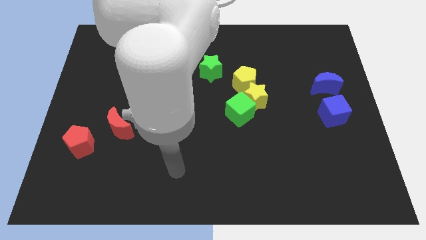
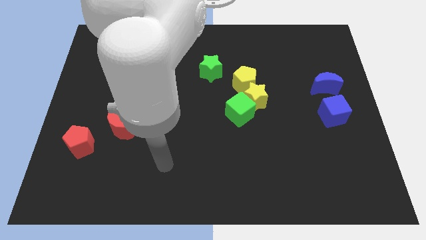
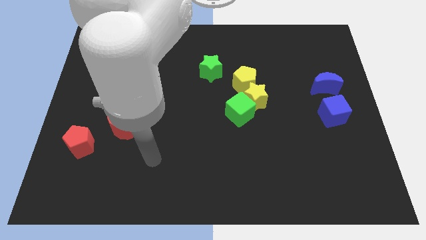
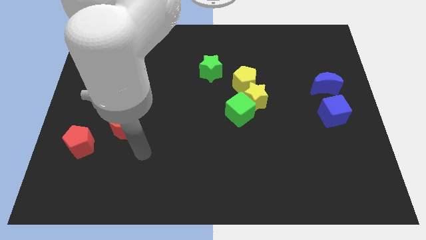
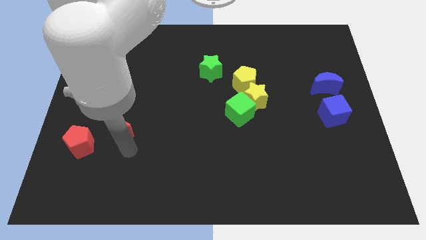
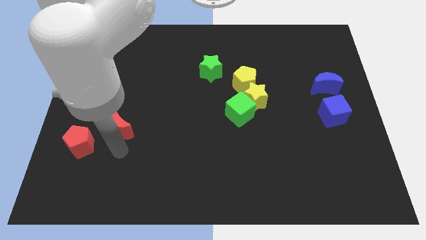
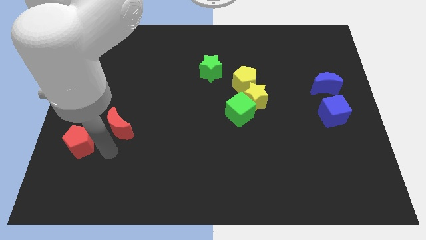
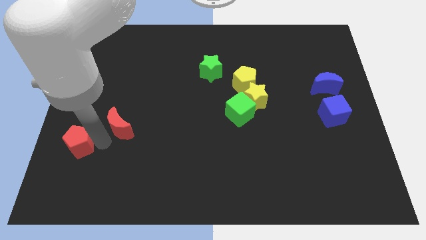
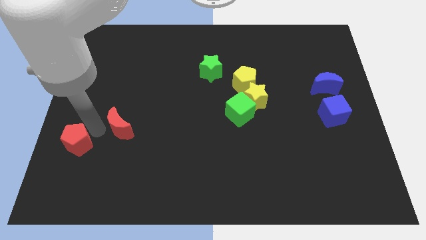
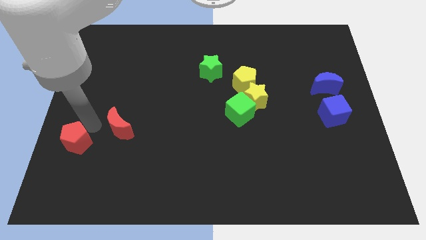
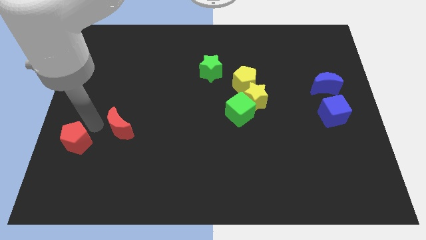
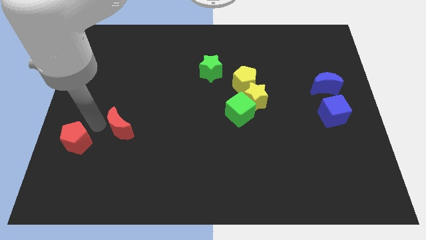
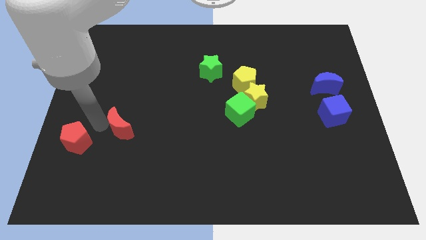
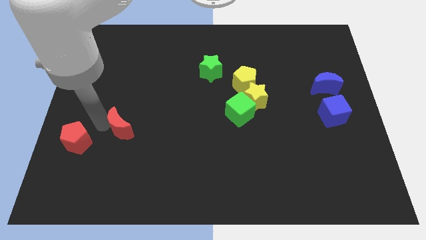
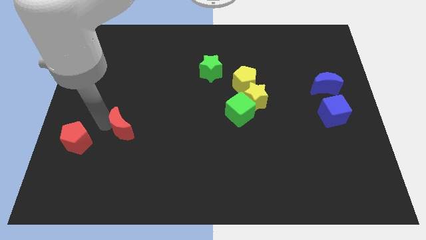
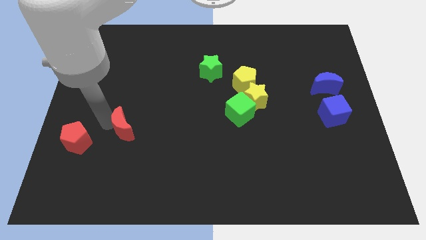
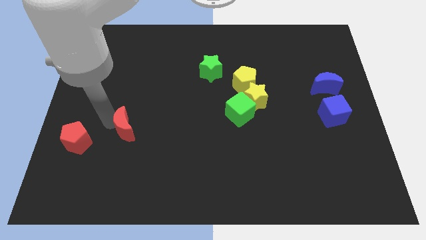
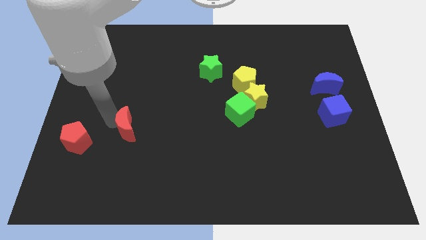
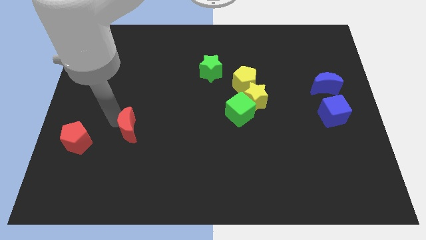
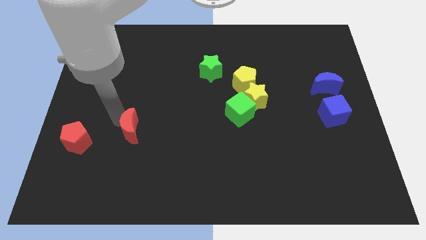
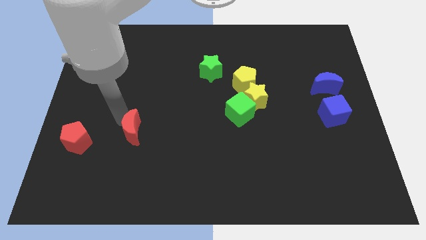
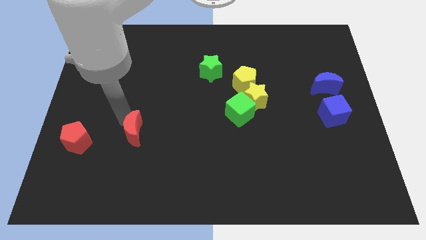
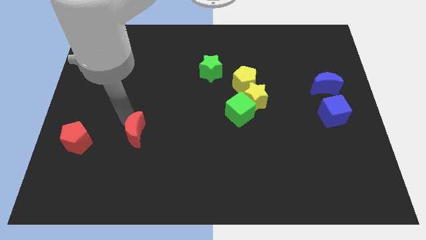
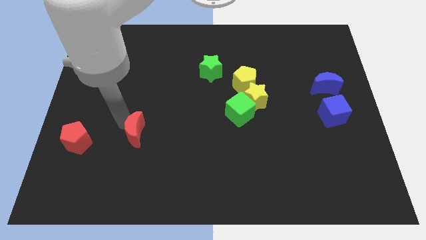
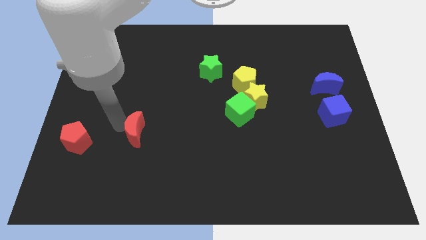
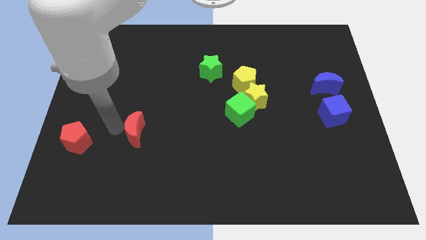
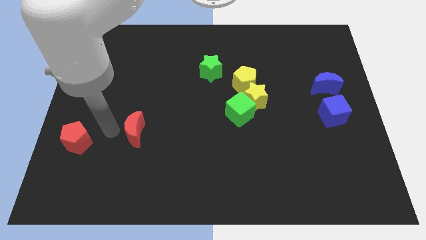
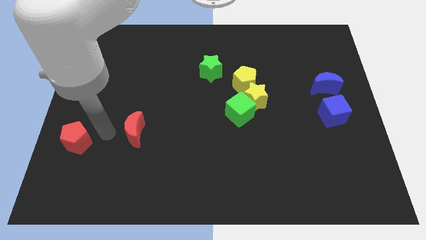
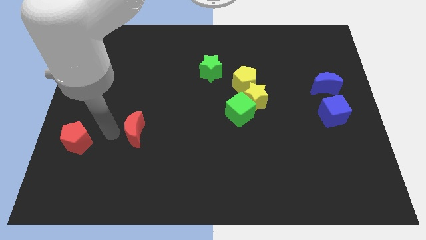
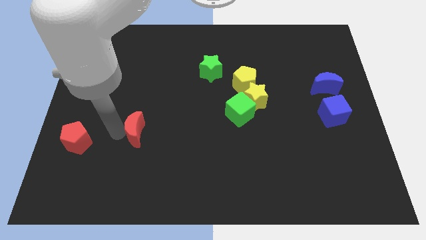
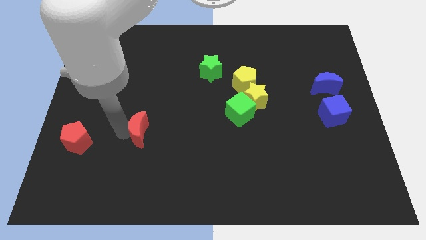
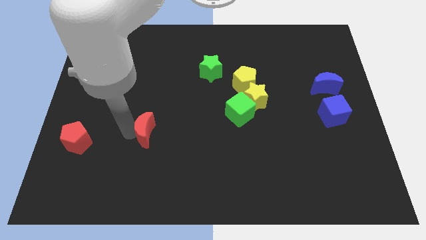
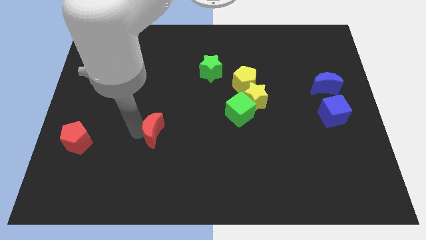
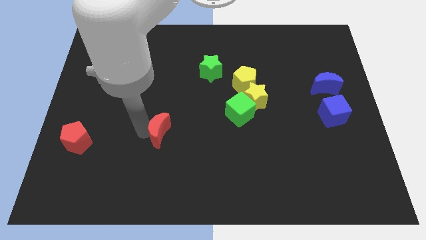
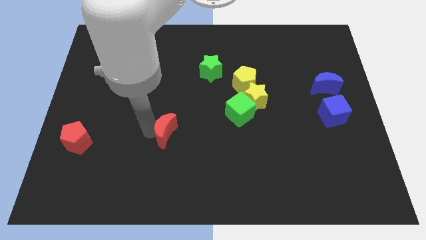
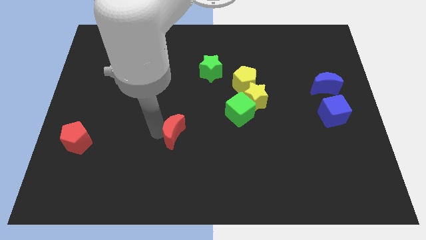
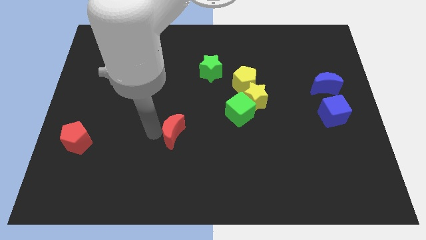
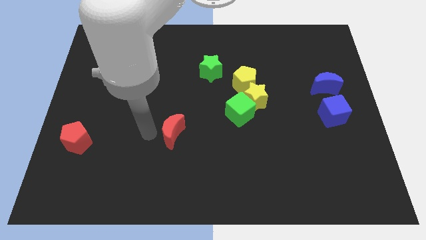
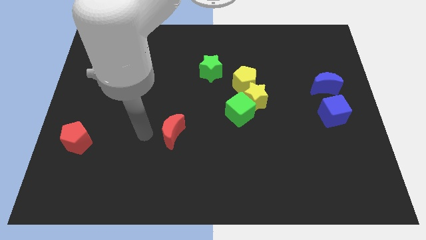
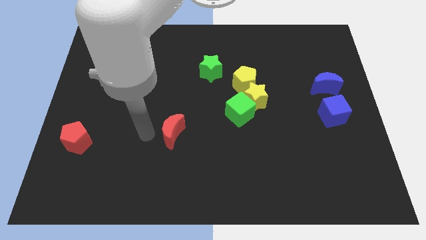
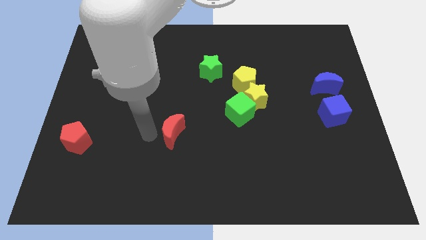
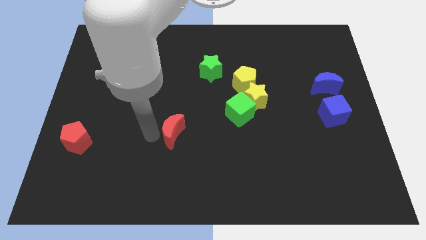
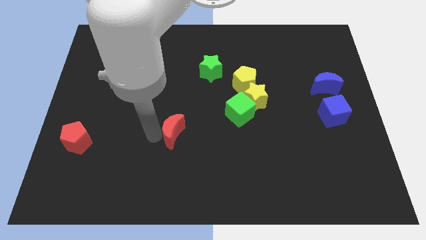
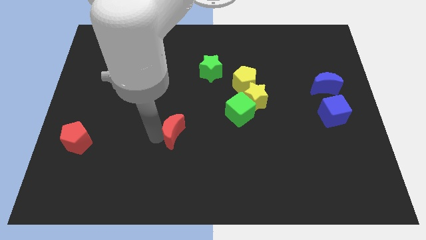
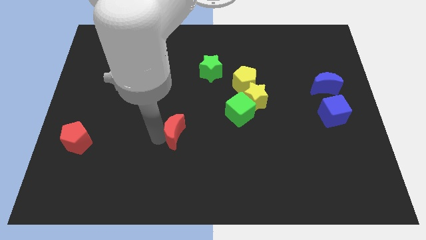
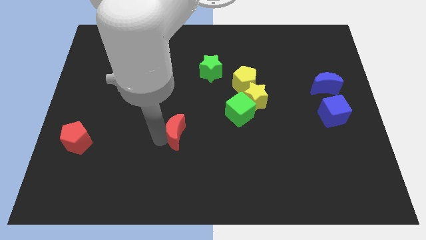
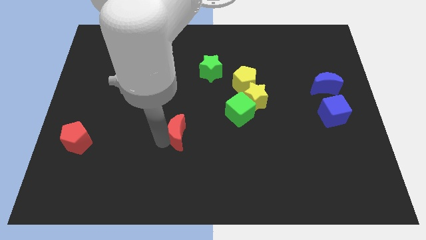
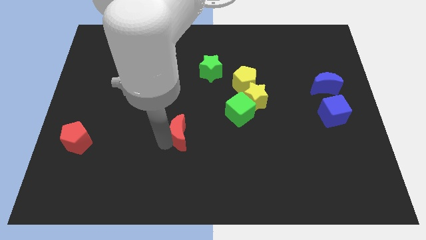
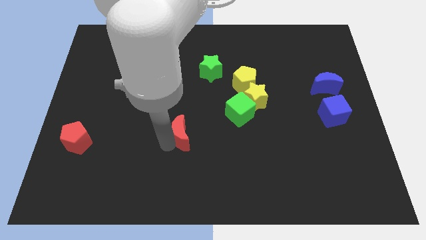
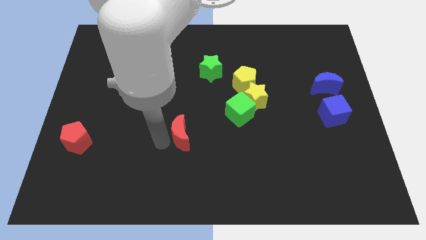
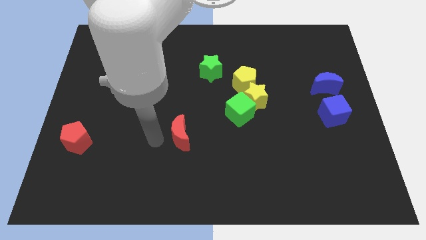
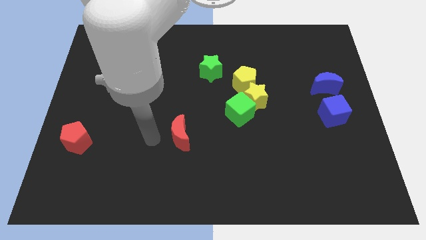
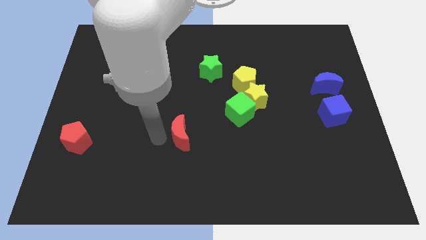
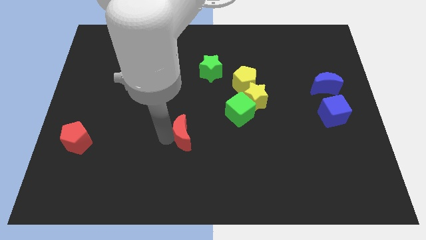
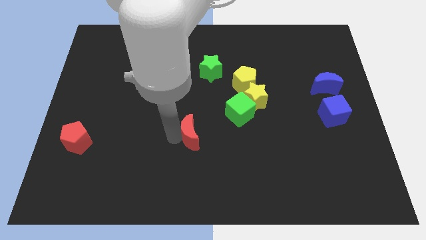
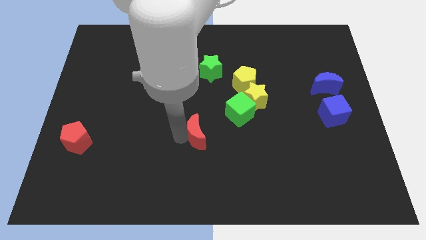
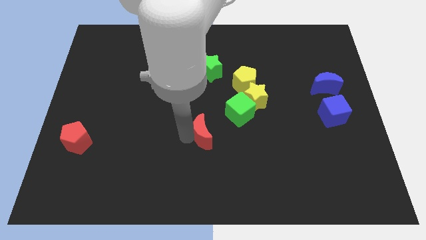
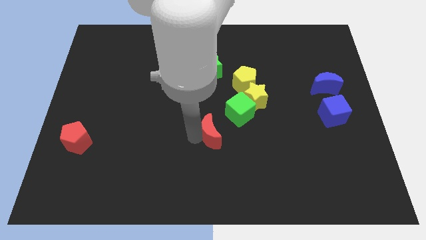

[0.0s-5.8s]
move the red moon to the right

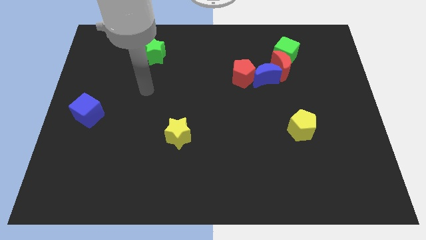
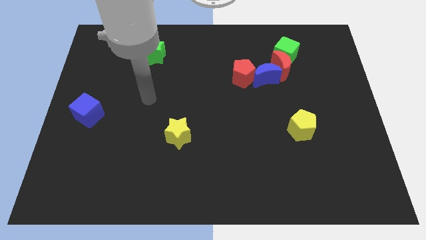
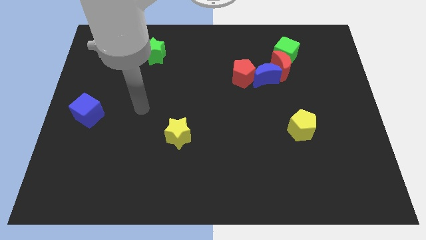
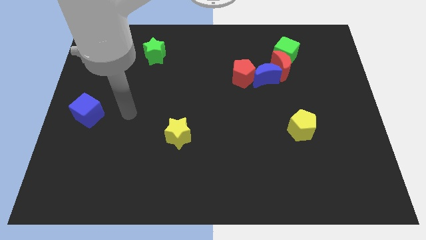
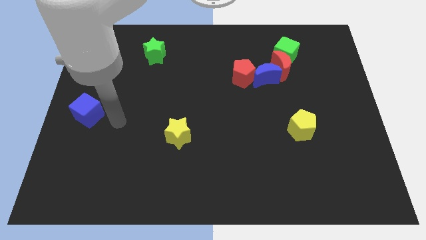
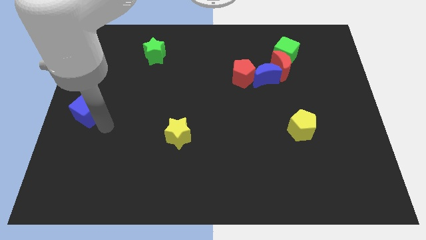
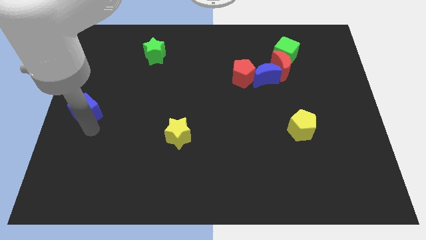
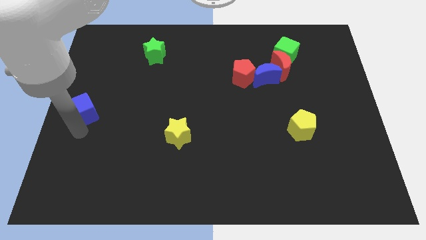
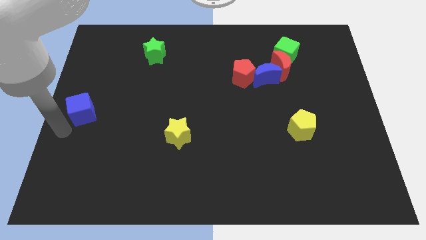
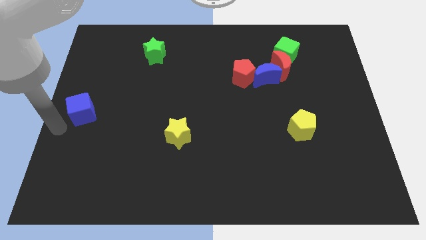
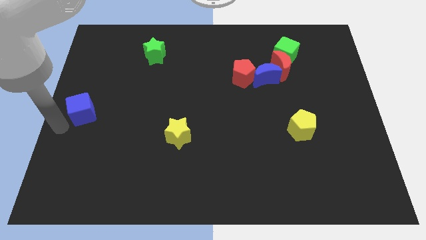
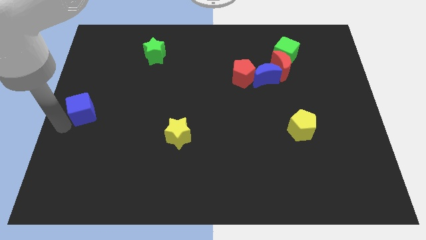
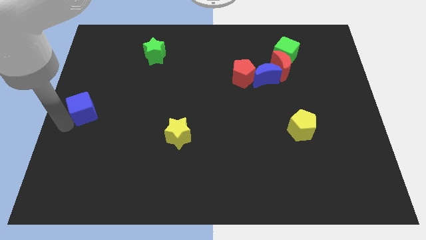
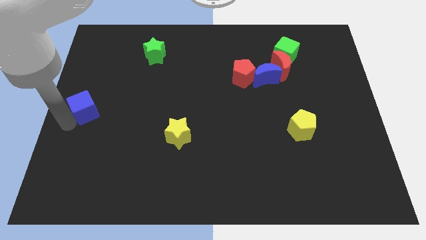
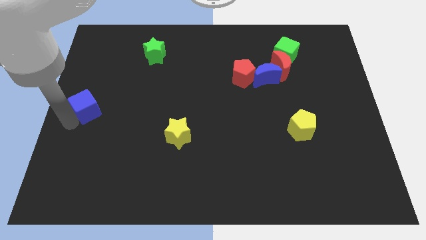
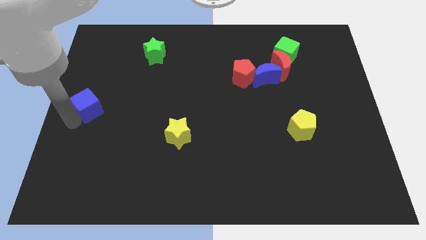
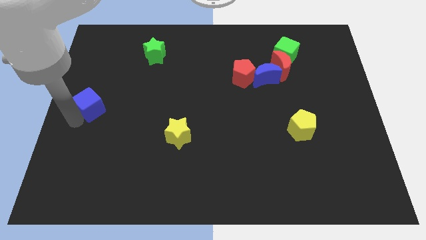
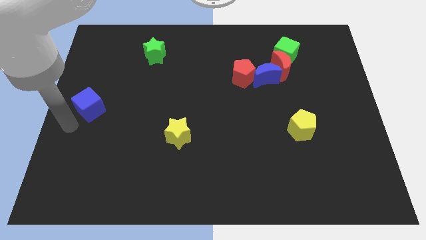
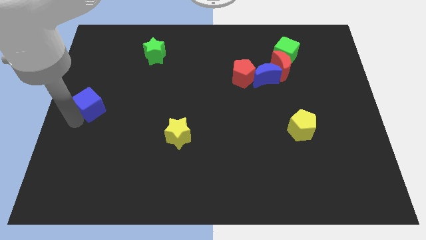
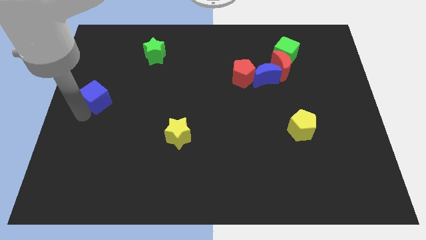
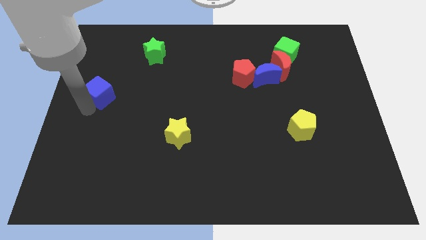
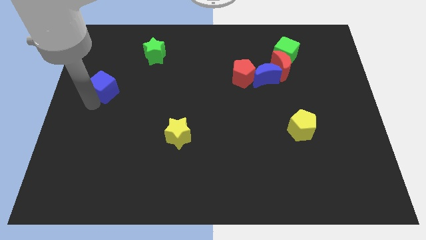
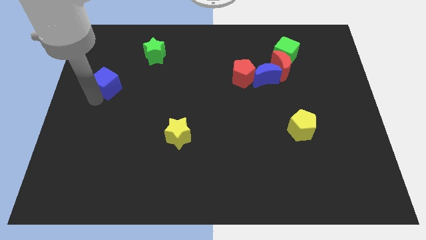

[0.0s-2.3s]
slightly move the blue cube upwards and then to the right
